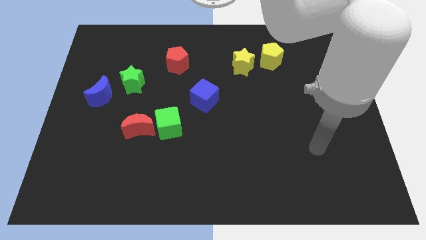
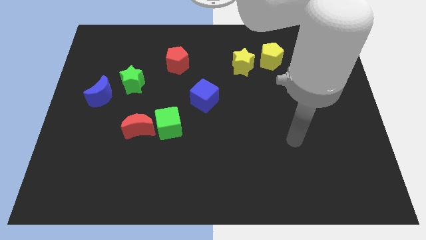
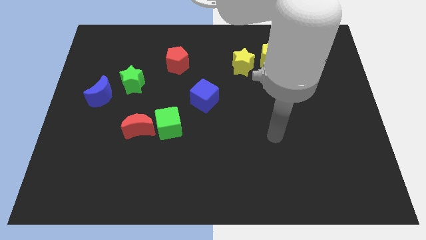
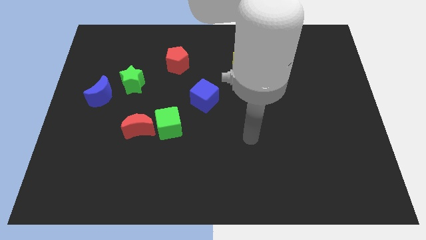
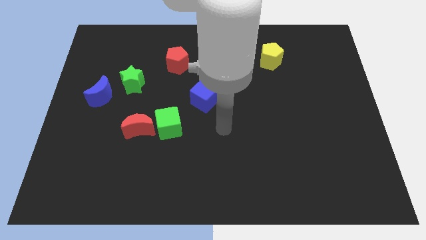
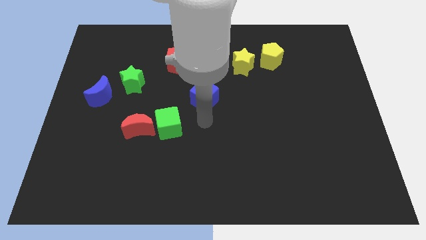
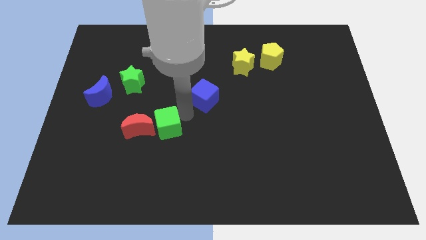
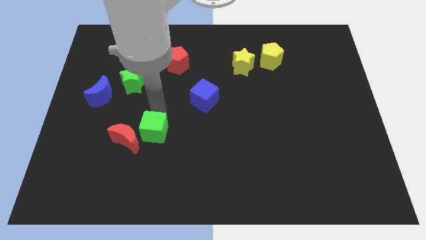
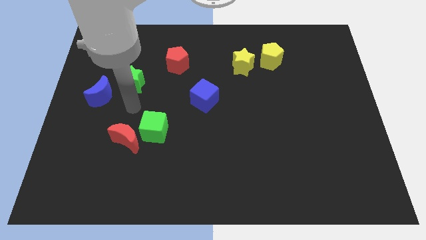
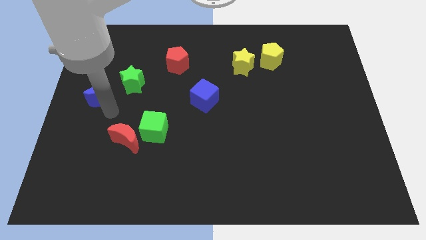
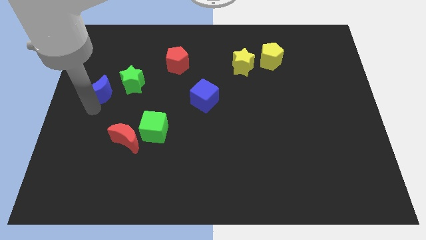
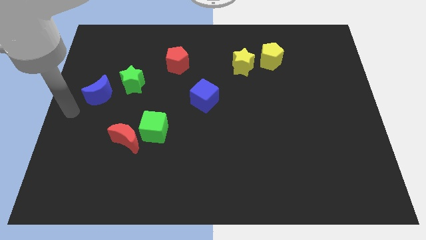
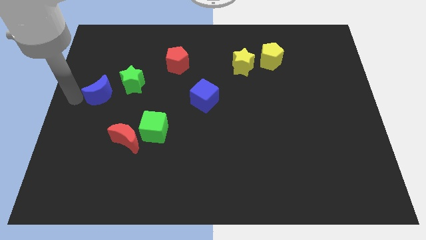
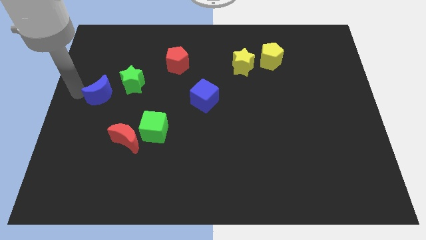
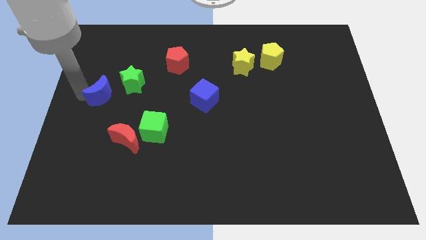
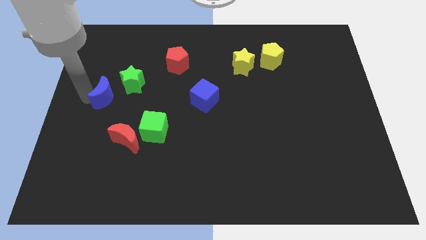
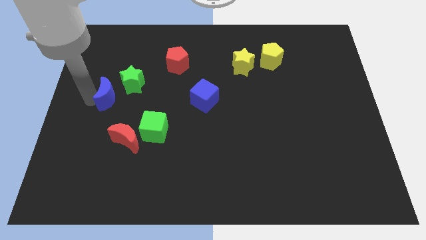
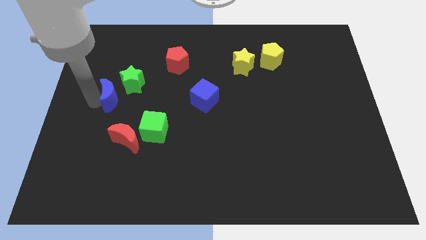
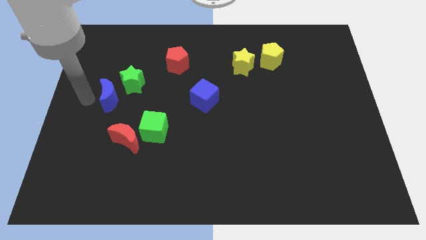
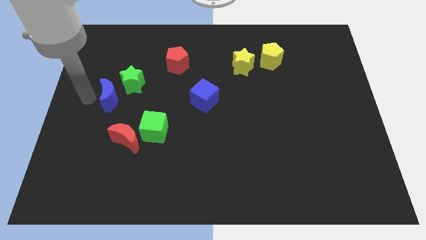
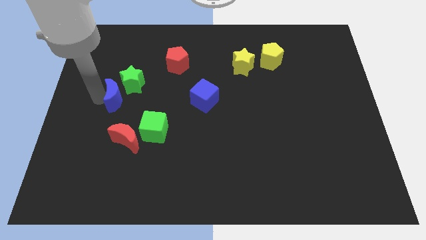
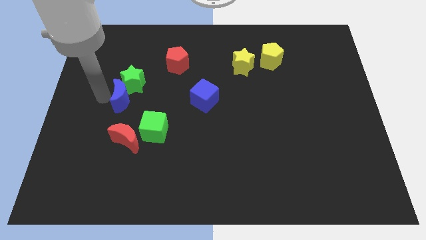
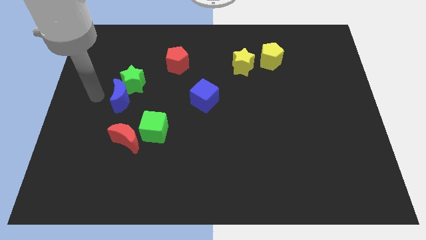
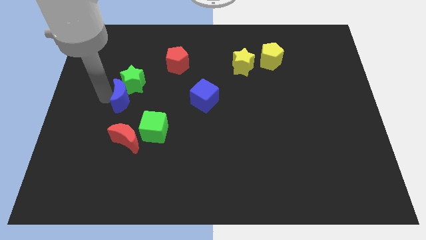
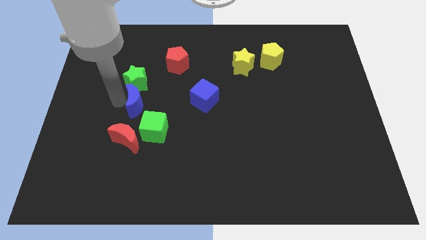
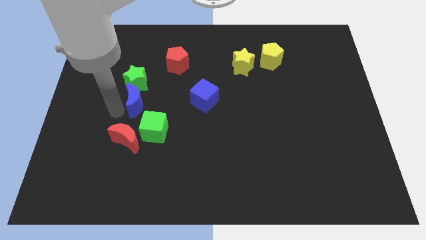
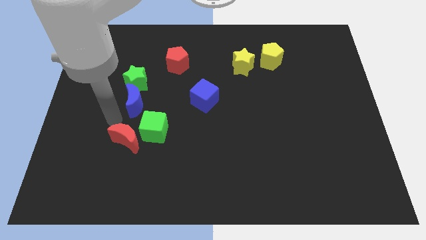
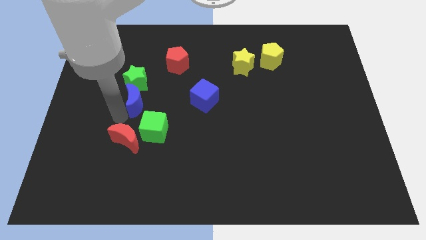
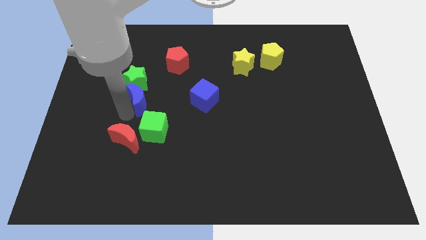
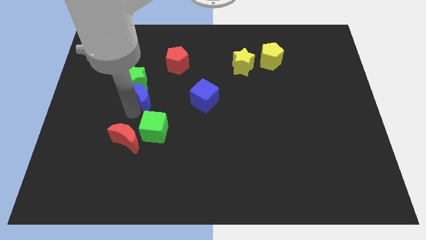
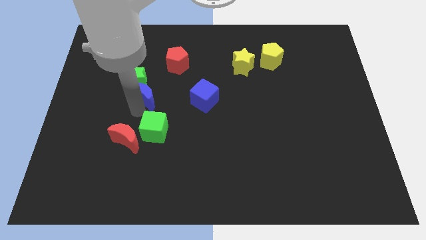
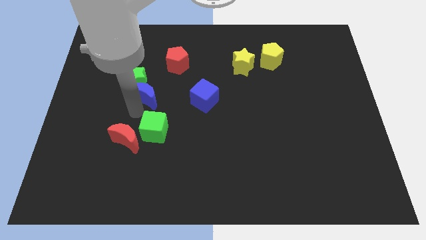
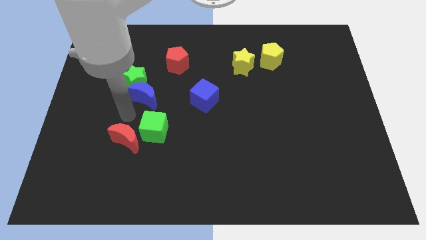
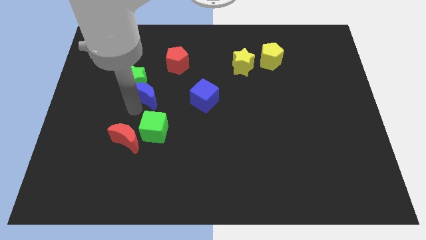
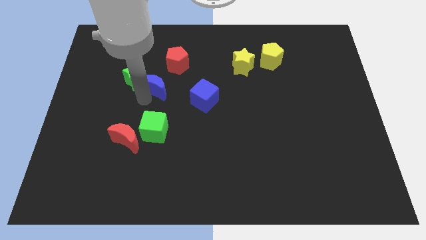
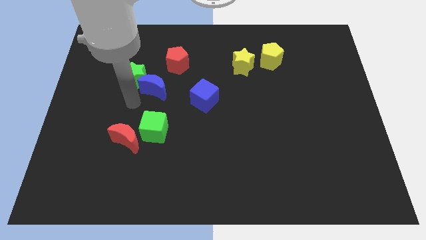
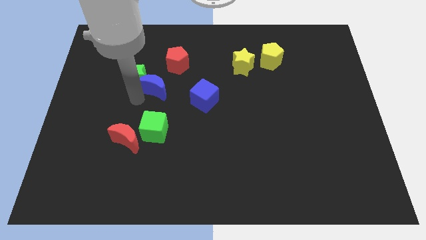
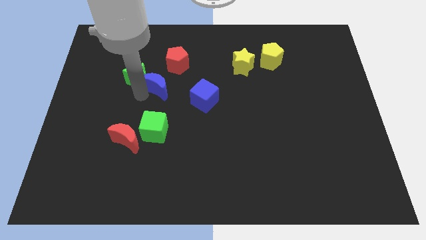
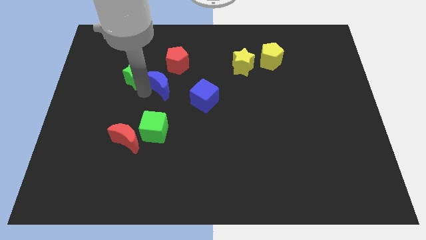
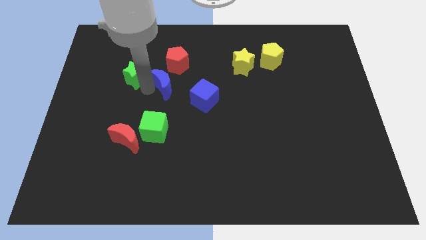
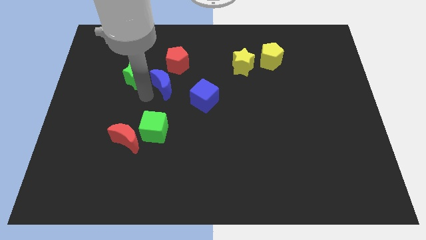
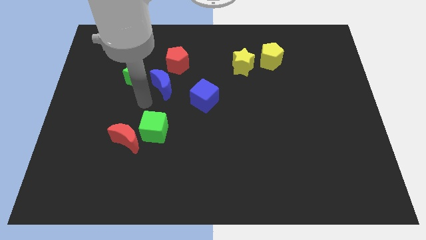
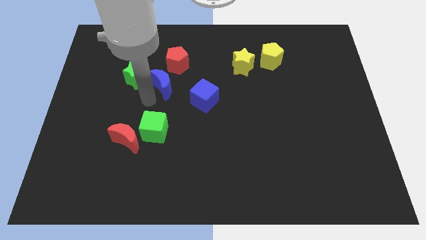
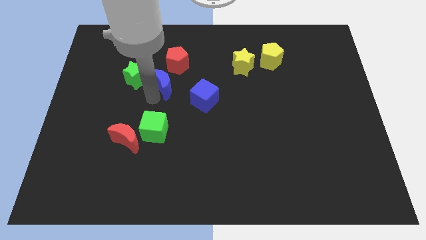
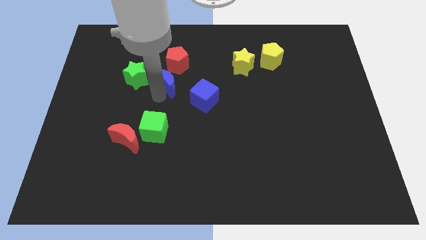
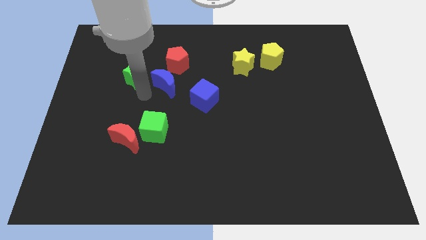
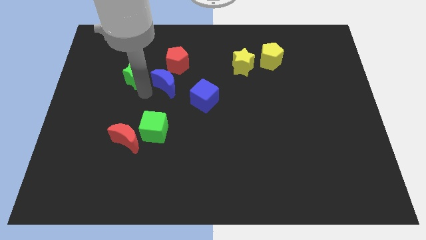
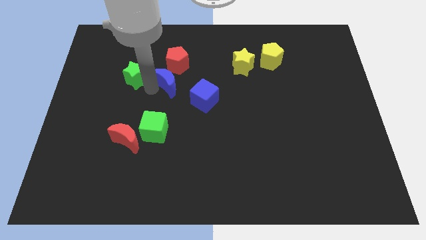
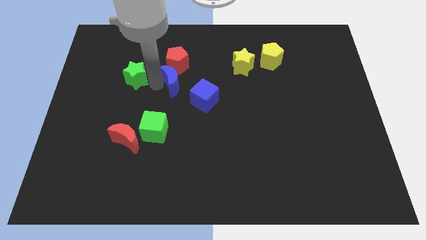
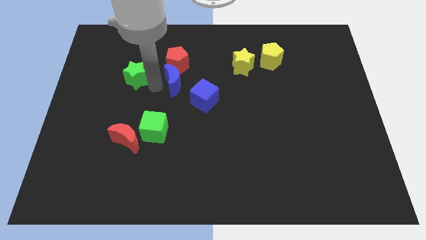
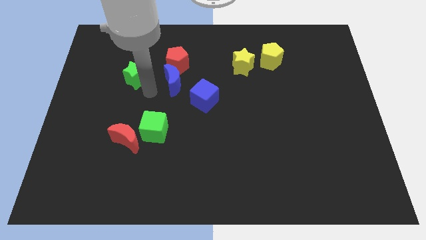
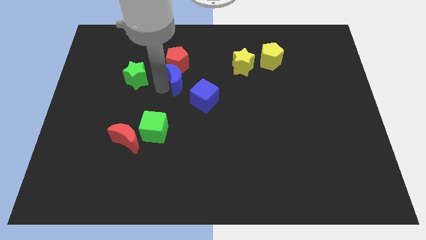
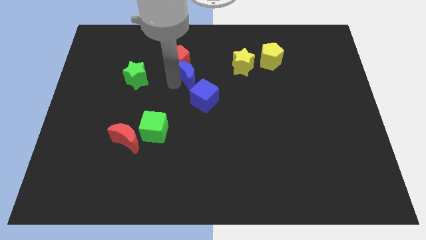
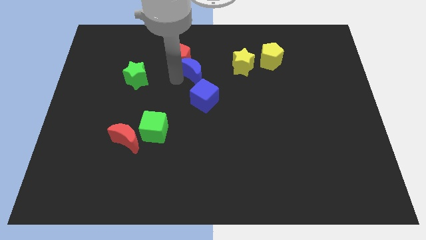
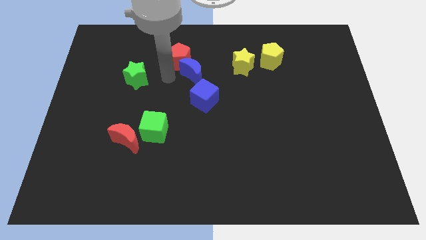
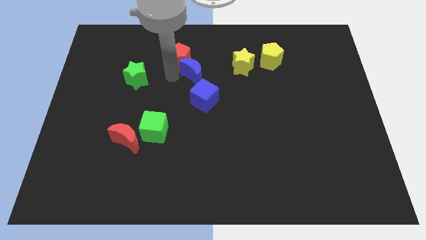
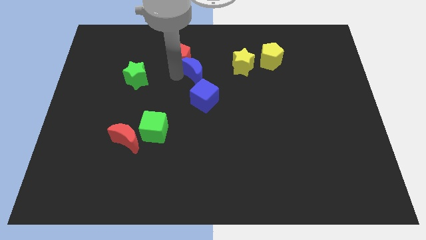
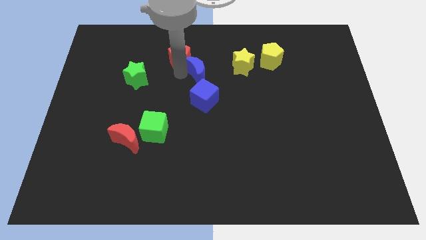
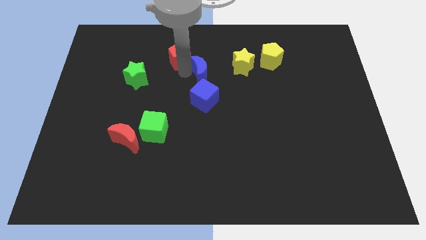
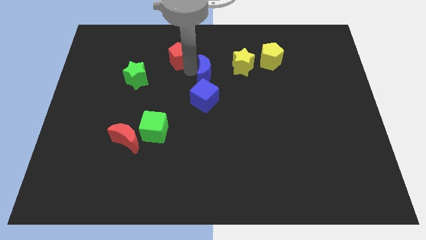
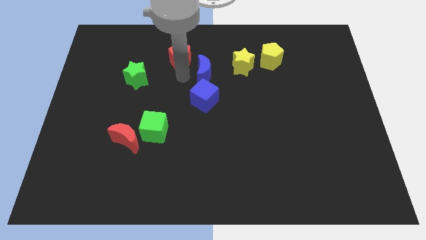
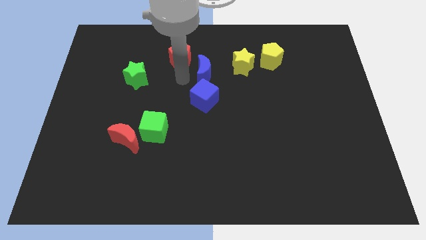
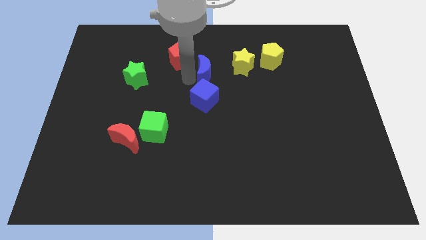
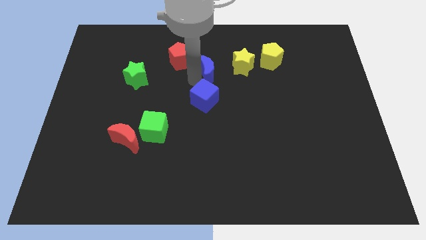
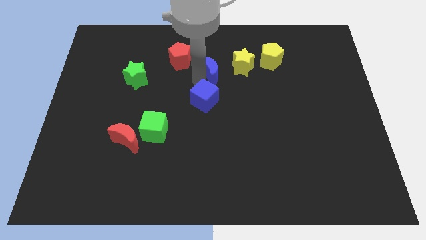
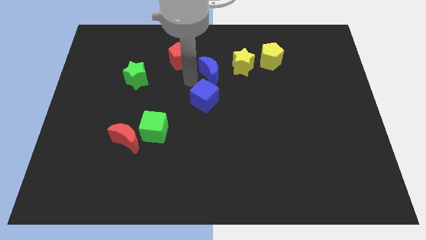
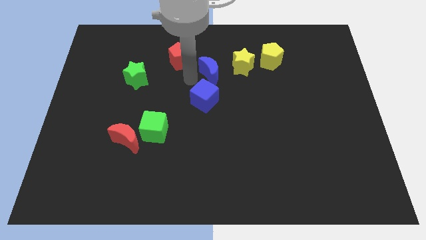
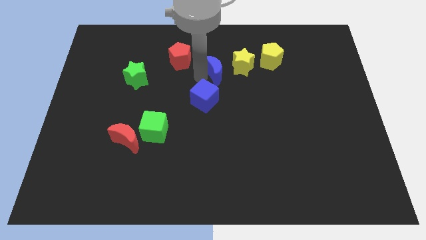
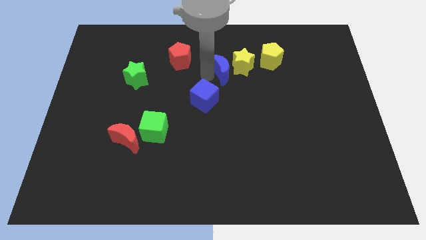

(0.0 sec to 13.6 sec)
put the blue moon close to the yellow star
